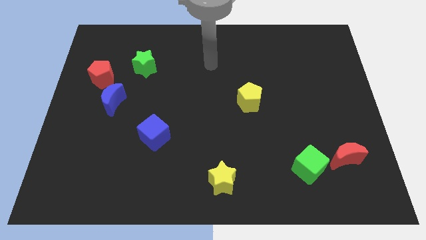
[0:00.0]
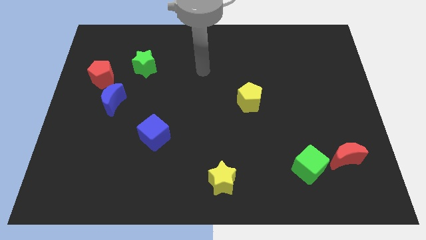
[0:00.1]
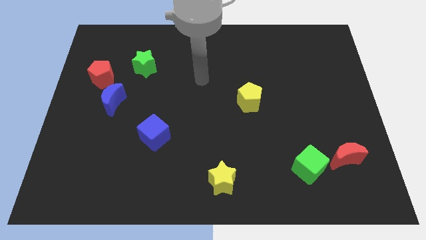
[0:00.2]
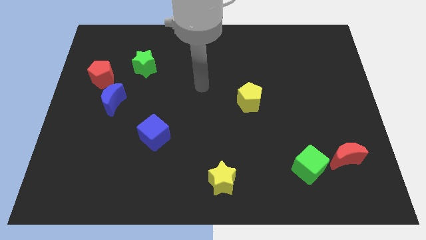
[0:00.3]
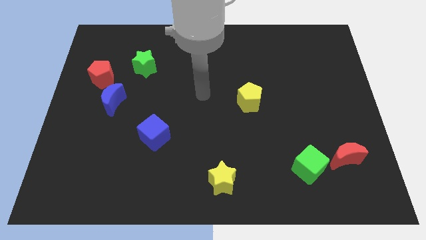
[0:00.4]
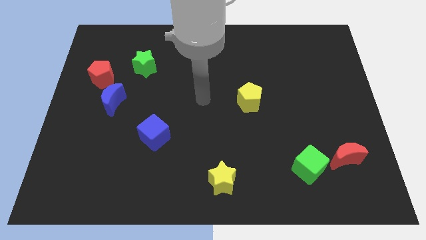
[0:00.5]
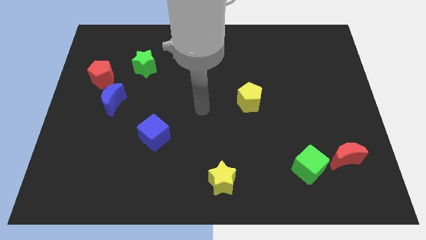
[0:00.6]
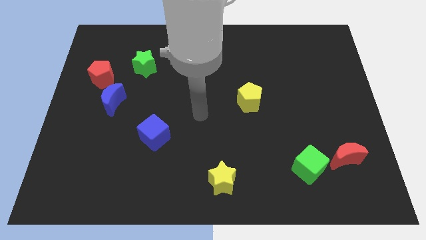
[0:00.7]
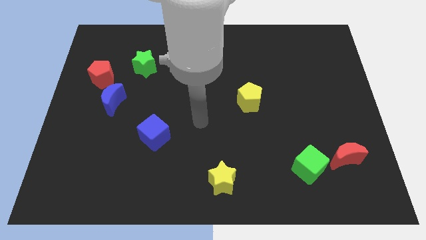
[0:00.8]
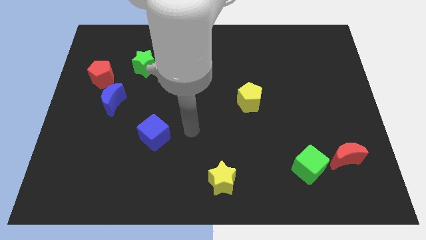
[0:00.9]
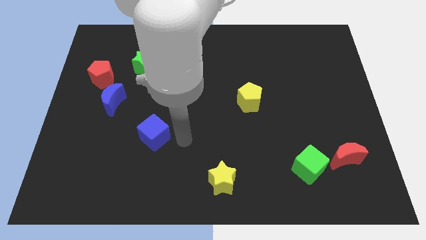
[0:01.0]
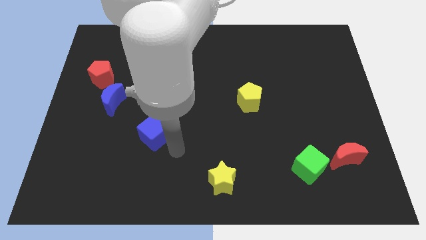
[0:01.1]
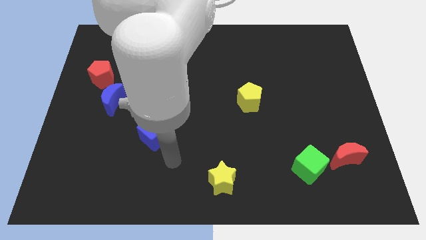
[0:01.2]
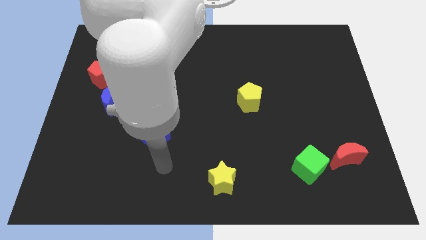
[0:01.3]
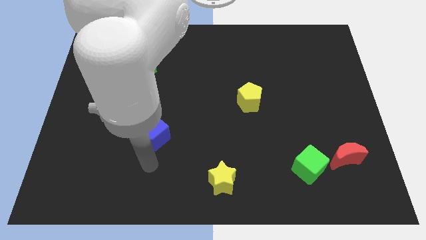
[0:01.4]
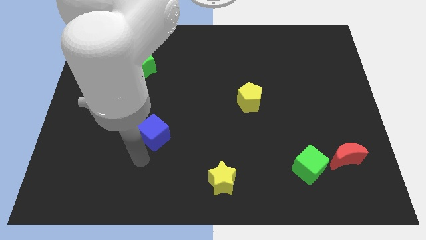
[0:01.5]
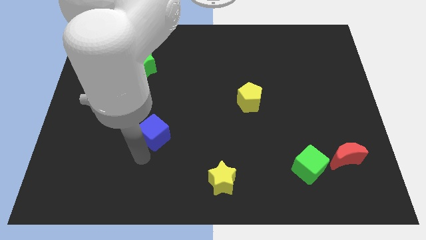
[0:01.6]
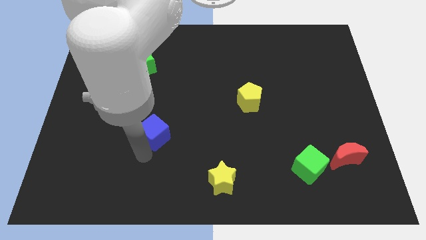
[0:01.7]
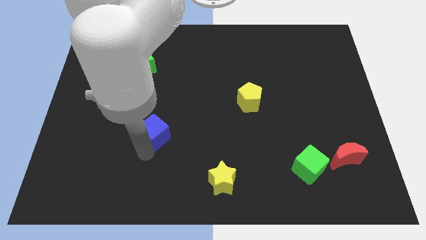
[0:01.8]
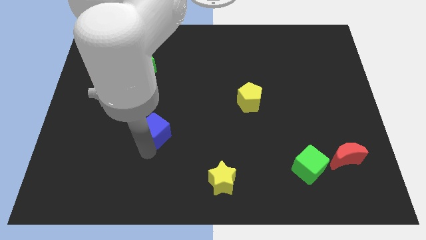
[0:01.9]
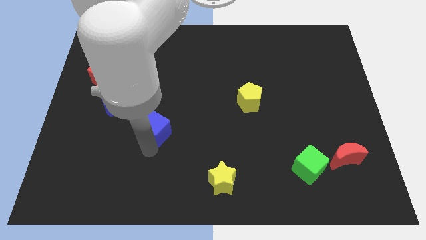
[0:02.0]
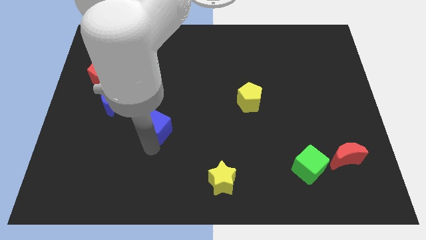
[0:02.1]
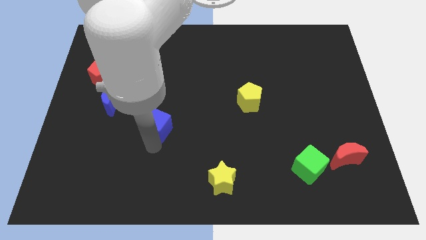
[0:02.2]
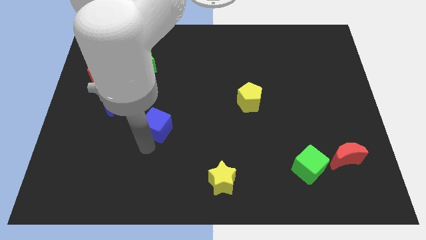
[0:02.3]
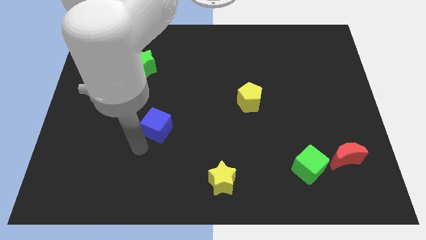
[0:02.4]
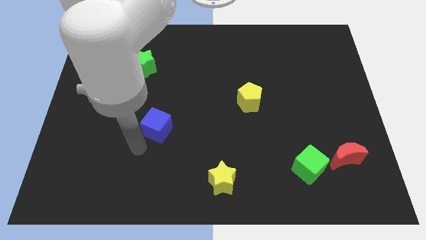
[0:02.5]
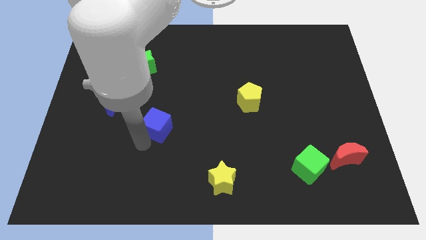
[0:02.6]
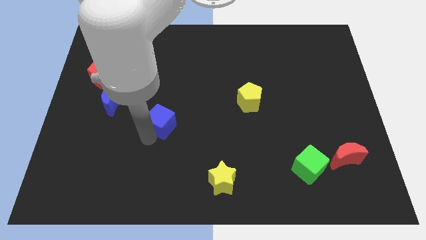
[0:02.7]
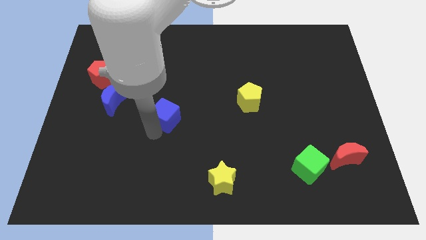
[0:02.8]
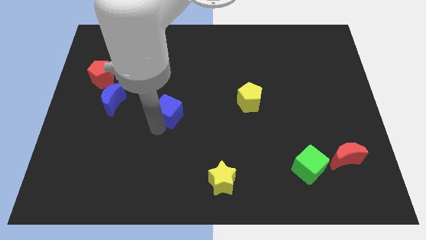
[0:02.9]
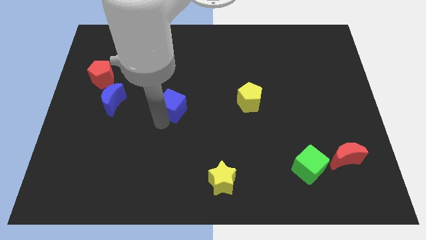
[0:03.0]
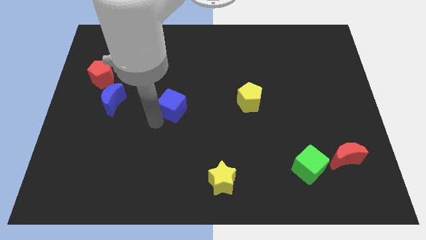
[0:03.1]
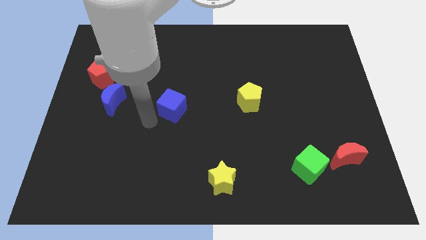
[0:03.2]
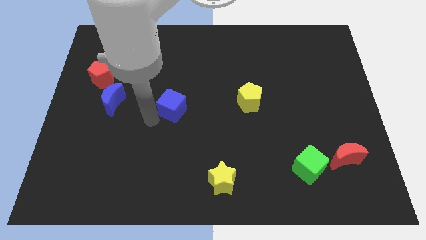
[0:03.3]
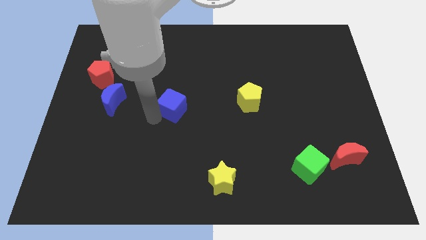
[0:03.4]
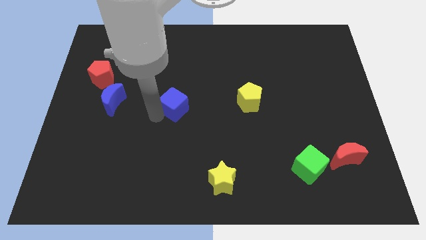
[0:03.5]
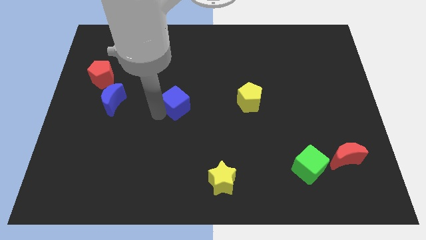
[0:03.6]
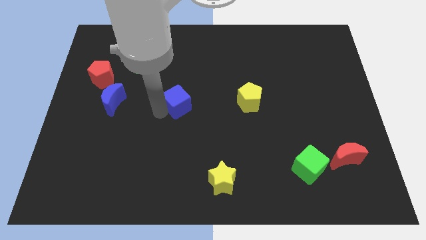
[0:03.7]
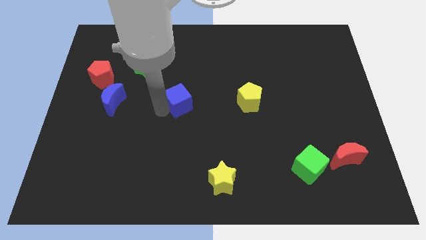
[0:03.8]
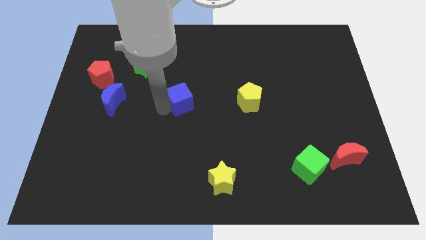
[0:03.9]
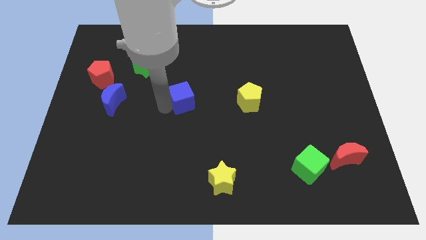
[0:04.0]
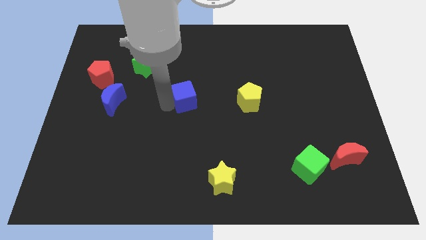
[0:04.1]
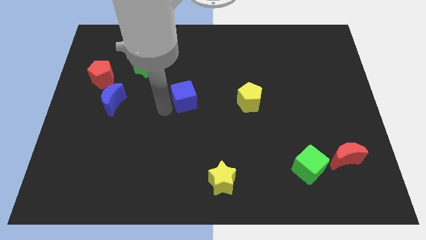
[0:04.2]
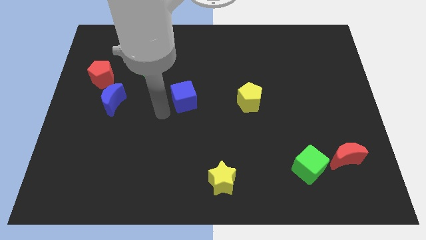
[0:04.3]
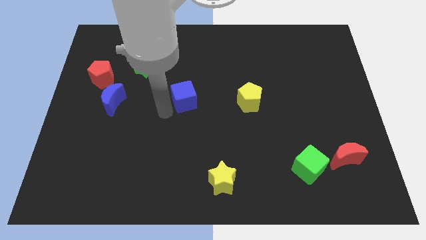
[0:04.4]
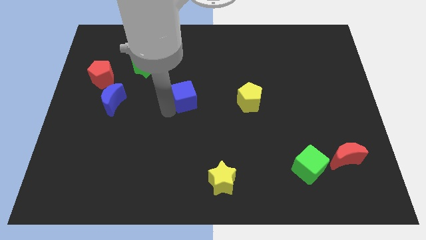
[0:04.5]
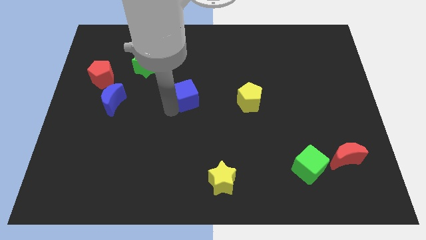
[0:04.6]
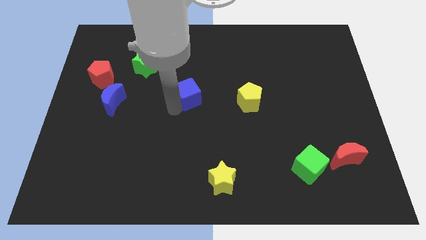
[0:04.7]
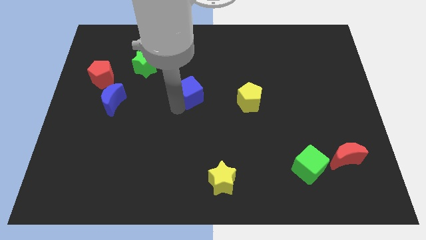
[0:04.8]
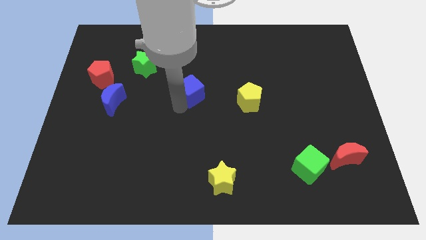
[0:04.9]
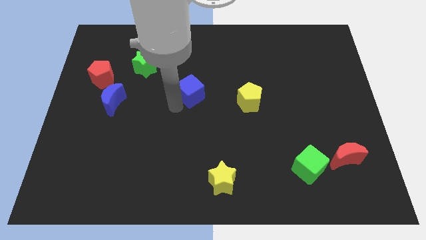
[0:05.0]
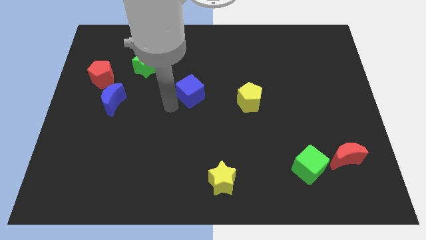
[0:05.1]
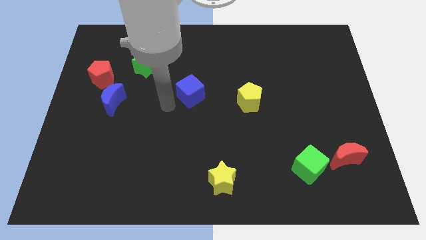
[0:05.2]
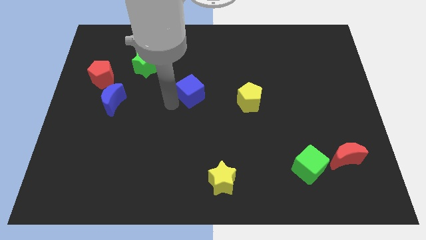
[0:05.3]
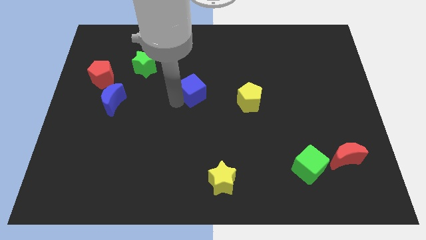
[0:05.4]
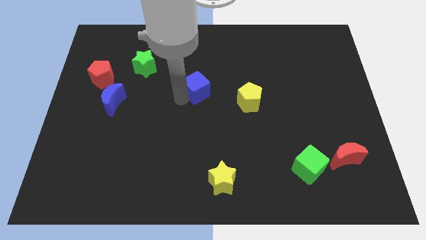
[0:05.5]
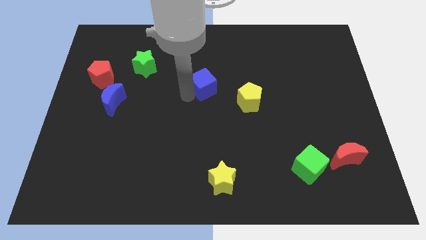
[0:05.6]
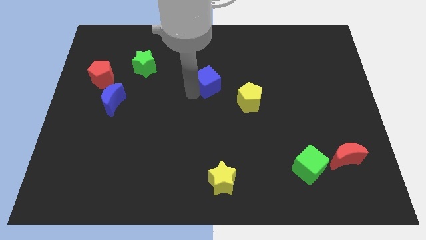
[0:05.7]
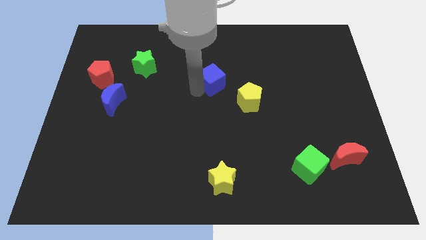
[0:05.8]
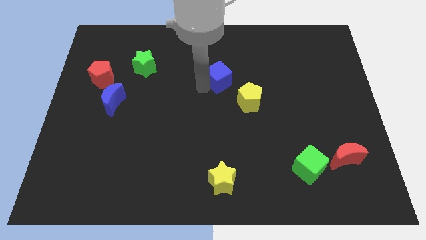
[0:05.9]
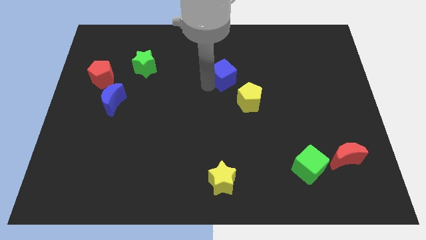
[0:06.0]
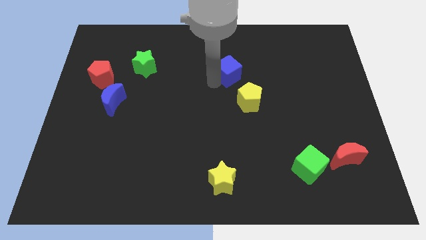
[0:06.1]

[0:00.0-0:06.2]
put the blue cube above the yellow pentagon

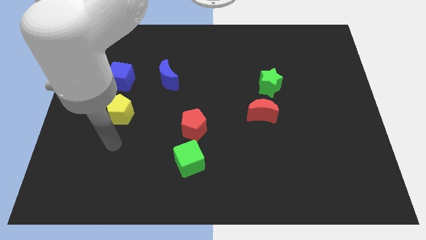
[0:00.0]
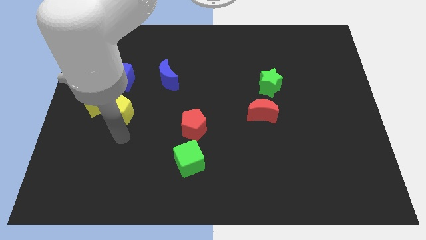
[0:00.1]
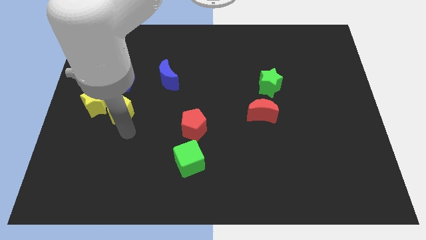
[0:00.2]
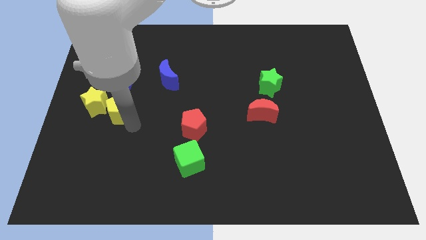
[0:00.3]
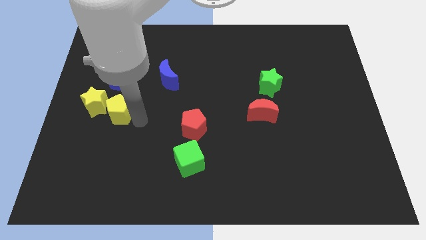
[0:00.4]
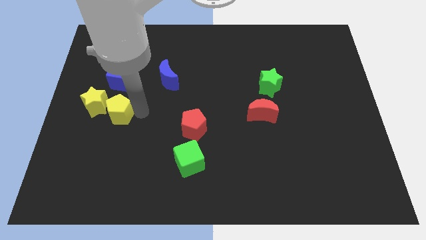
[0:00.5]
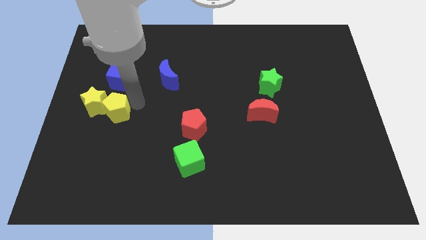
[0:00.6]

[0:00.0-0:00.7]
move the yellow star to the bottom left of the yellow pentagon
